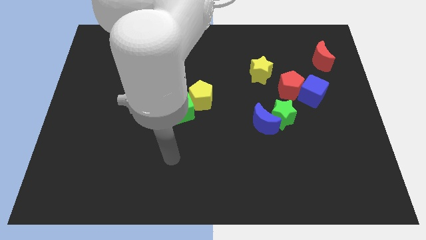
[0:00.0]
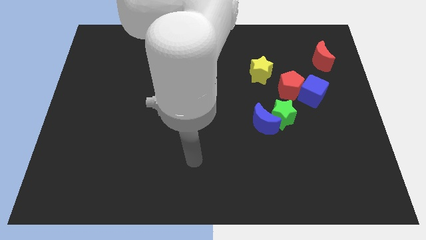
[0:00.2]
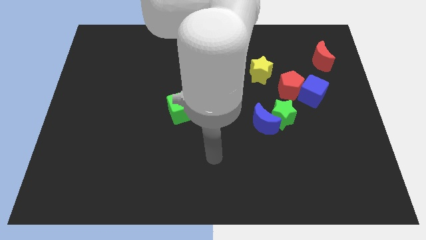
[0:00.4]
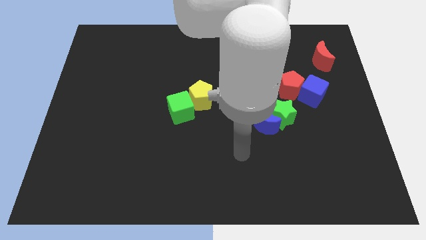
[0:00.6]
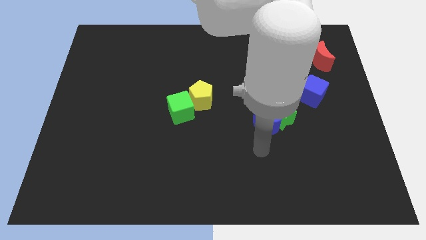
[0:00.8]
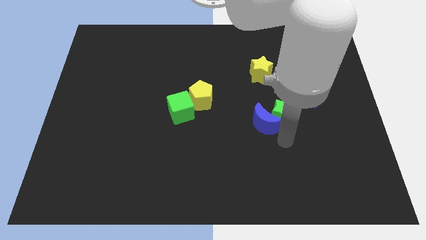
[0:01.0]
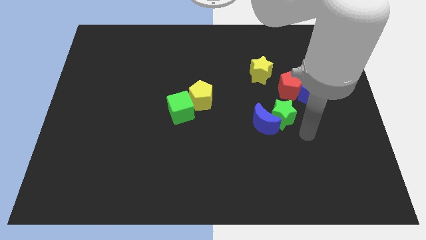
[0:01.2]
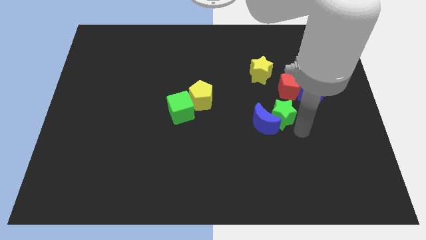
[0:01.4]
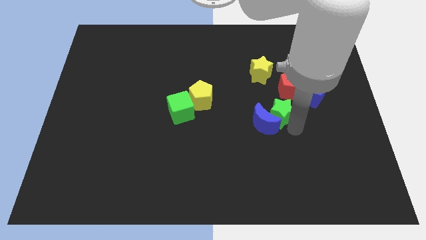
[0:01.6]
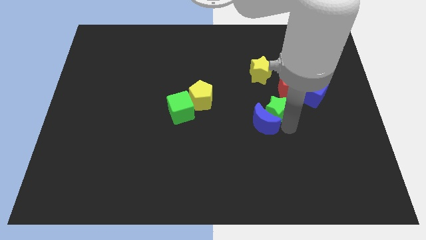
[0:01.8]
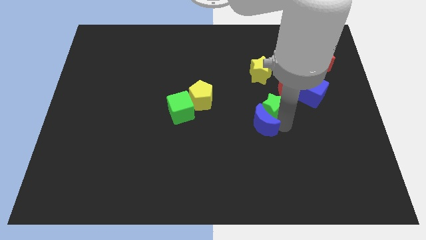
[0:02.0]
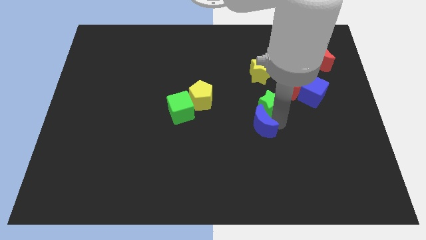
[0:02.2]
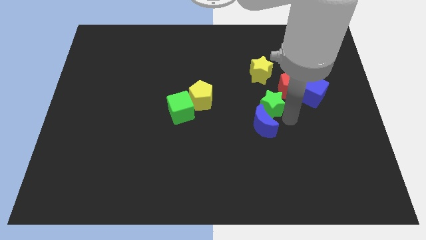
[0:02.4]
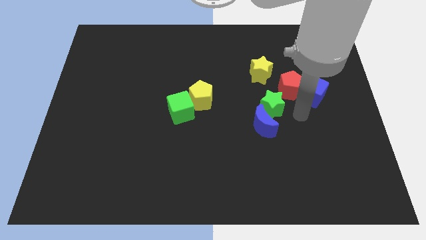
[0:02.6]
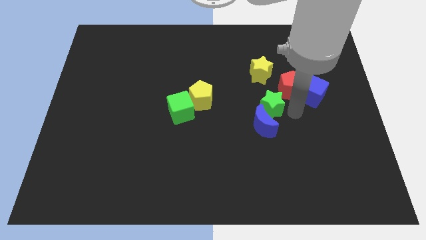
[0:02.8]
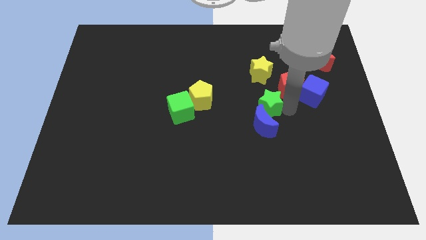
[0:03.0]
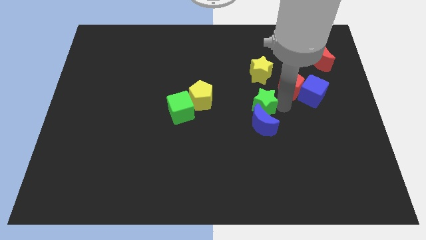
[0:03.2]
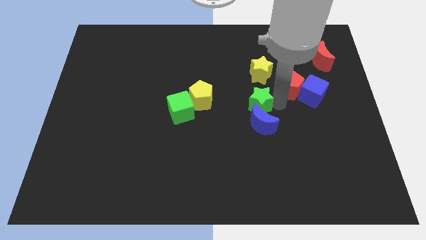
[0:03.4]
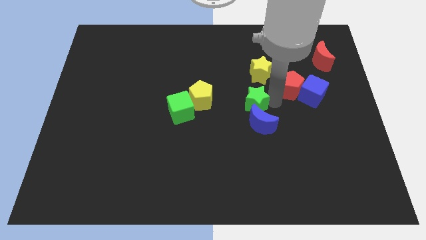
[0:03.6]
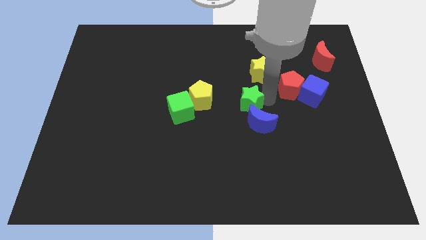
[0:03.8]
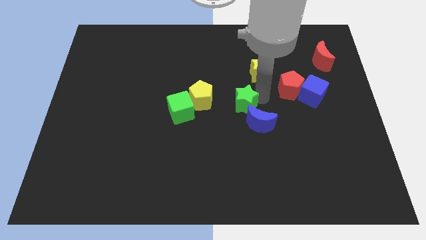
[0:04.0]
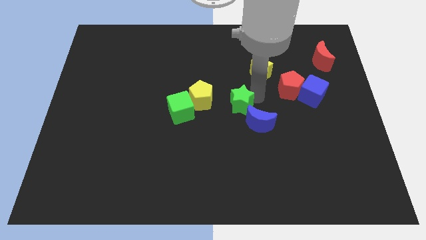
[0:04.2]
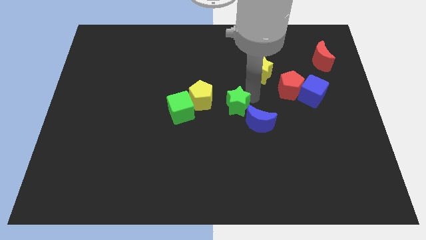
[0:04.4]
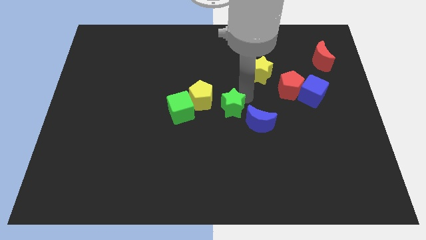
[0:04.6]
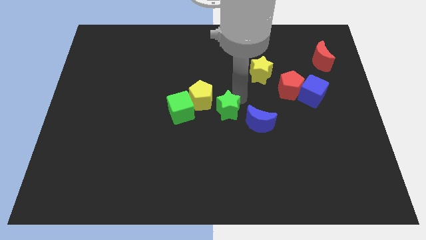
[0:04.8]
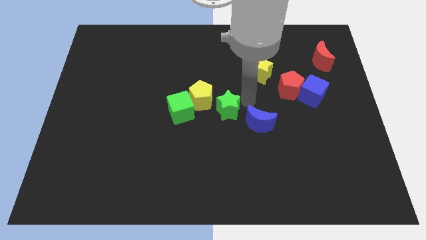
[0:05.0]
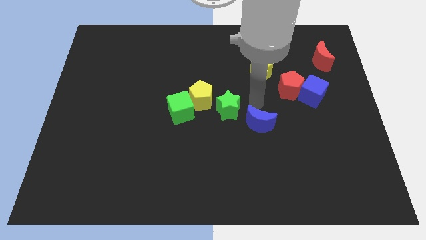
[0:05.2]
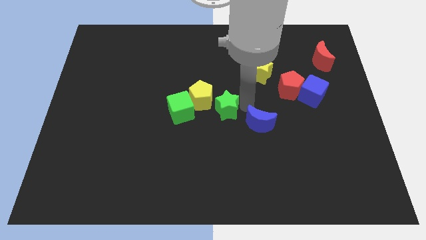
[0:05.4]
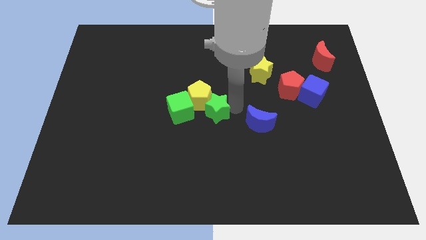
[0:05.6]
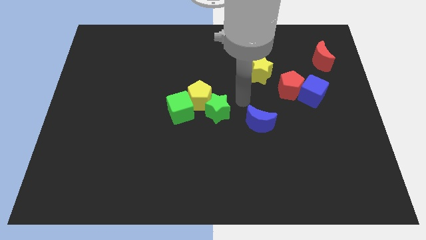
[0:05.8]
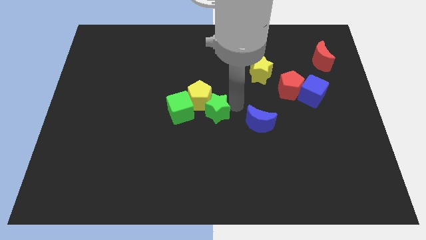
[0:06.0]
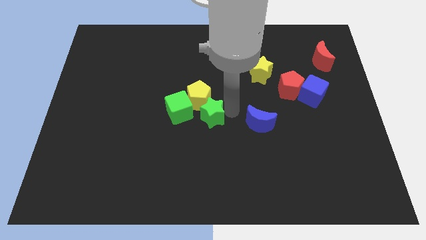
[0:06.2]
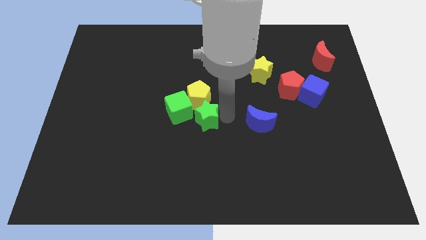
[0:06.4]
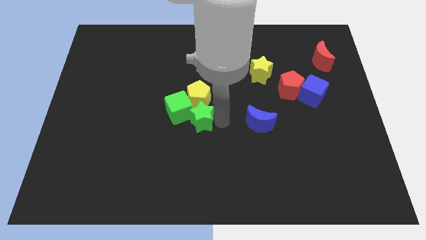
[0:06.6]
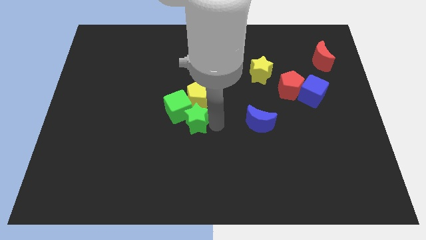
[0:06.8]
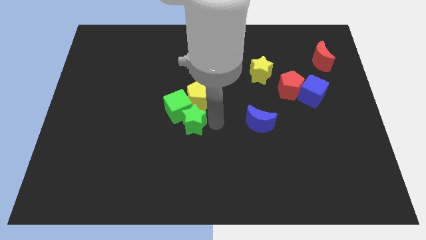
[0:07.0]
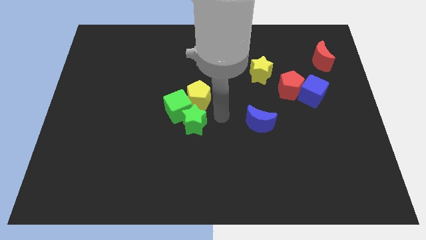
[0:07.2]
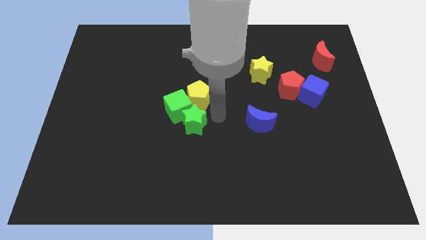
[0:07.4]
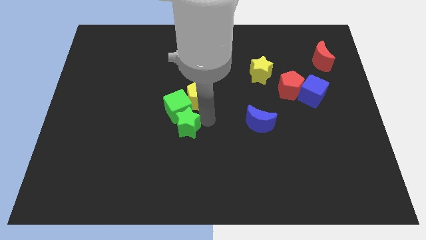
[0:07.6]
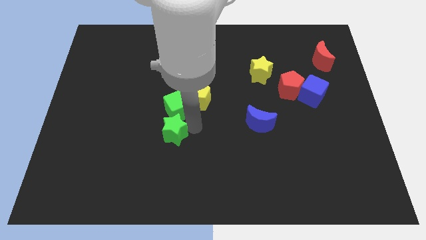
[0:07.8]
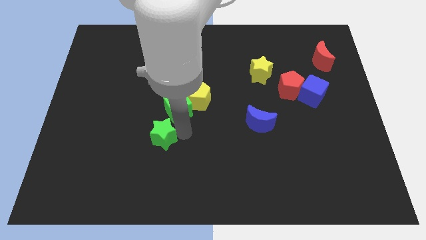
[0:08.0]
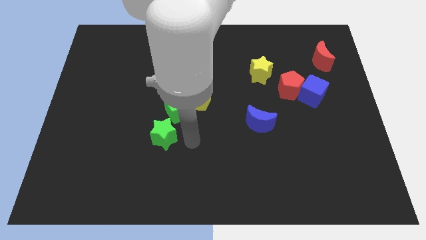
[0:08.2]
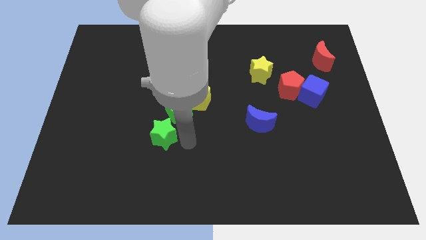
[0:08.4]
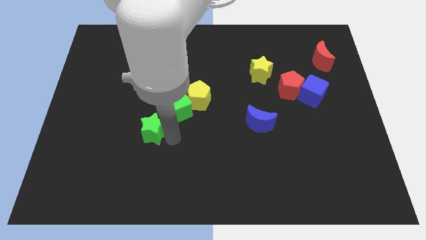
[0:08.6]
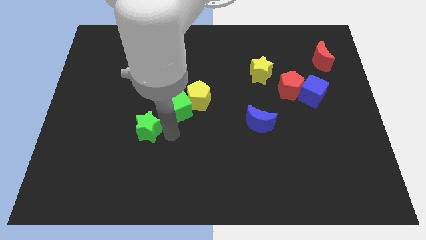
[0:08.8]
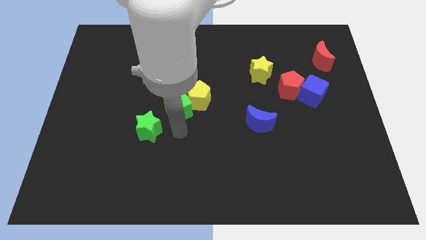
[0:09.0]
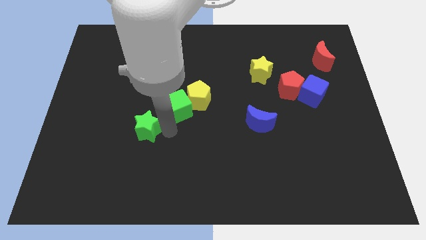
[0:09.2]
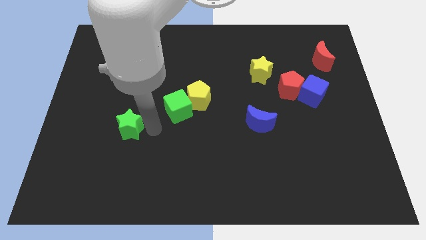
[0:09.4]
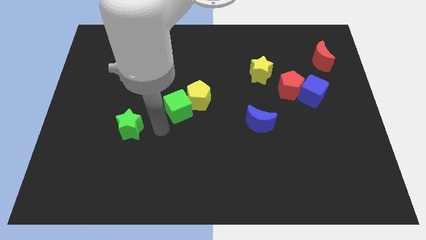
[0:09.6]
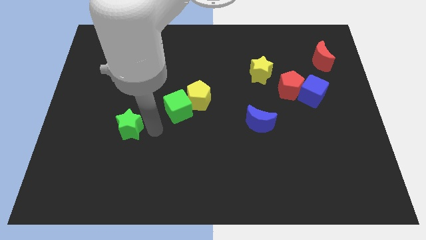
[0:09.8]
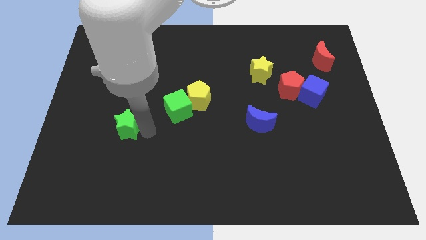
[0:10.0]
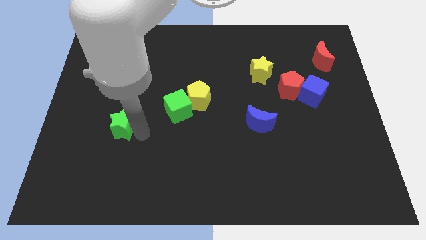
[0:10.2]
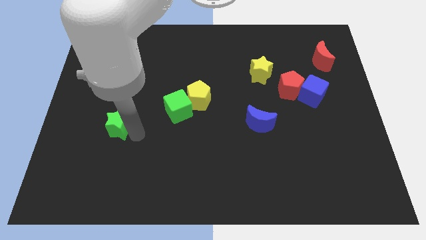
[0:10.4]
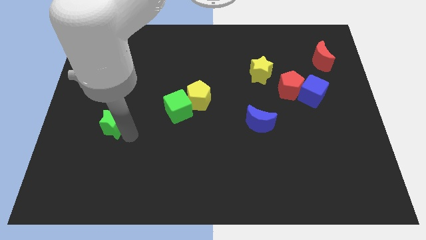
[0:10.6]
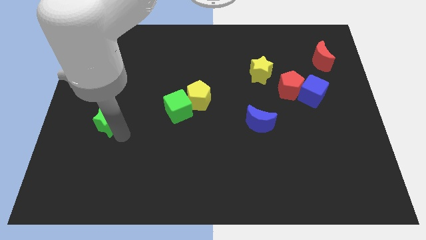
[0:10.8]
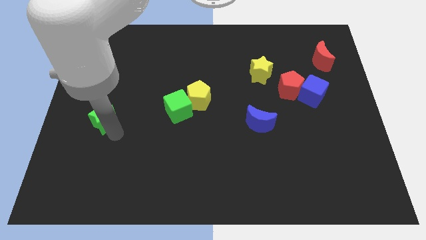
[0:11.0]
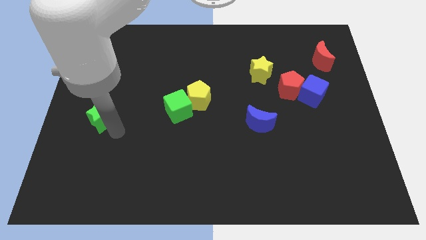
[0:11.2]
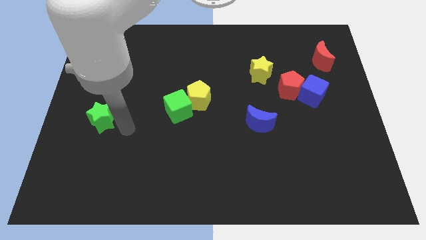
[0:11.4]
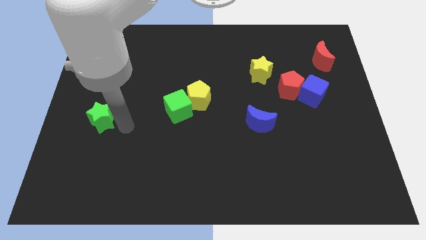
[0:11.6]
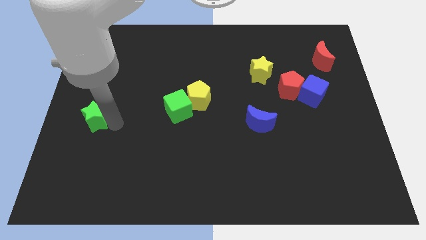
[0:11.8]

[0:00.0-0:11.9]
move the green star to the left side

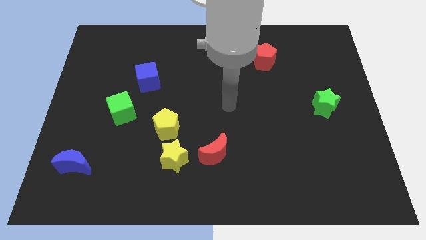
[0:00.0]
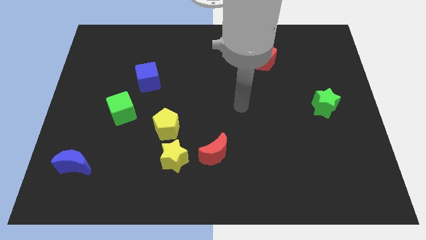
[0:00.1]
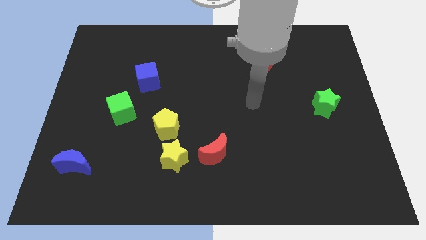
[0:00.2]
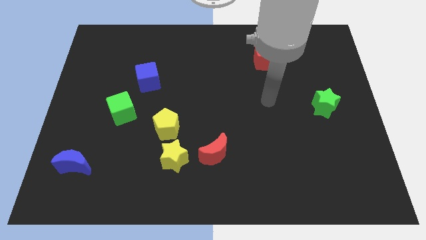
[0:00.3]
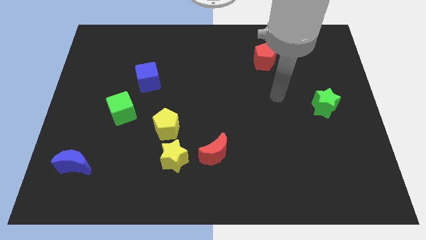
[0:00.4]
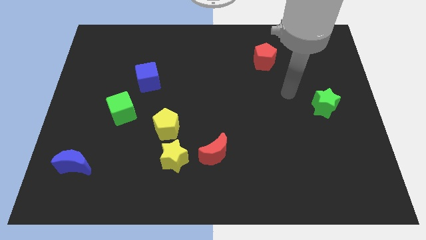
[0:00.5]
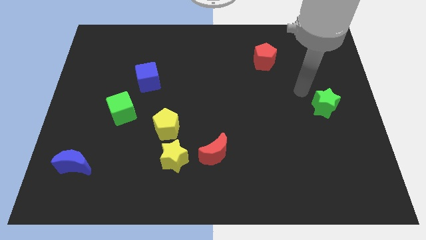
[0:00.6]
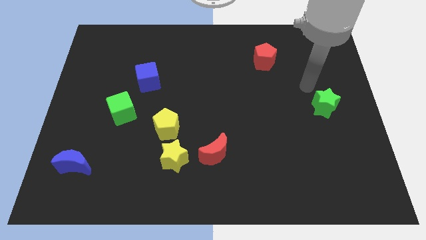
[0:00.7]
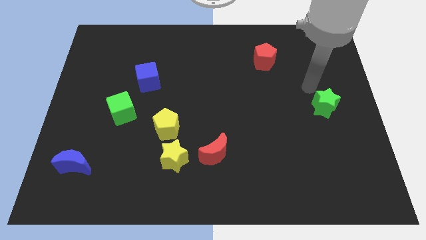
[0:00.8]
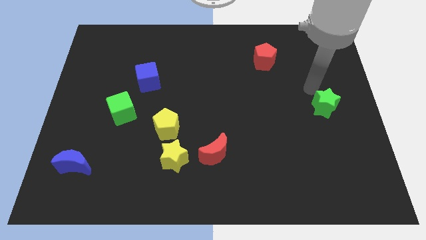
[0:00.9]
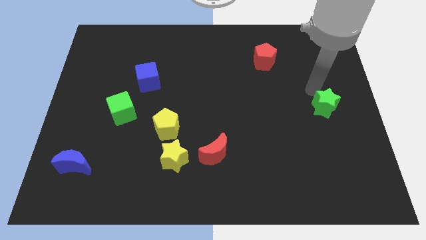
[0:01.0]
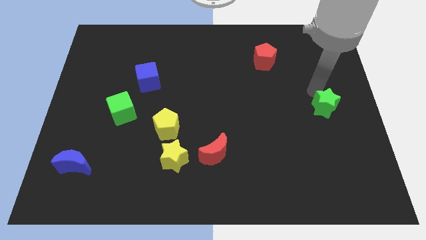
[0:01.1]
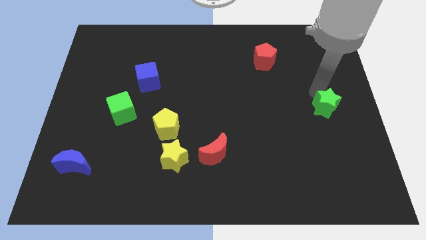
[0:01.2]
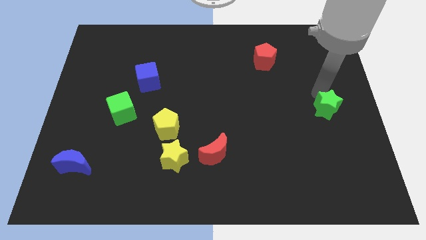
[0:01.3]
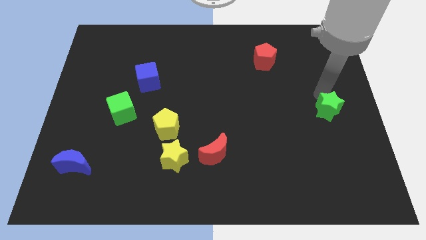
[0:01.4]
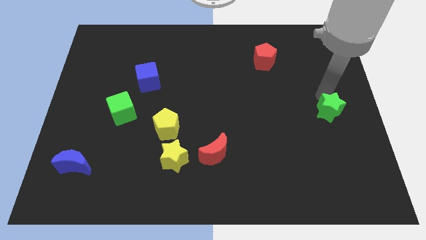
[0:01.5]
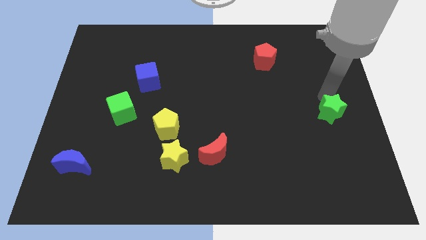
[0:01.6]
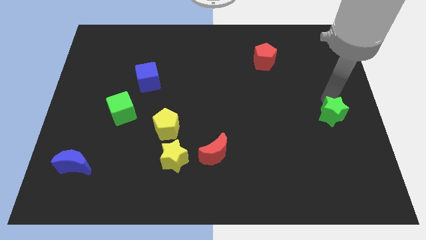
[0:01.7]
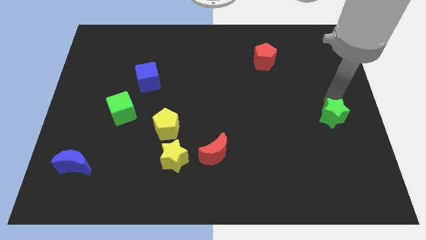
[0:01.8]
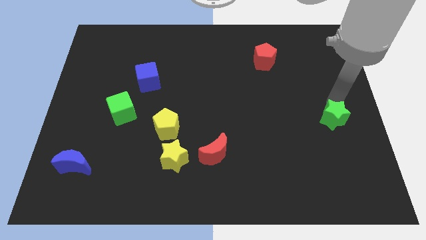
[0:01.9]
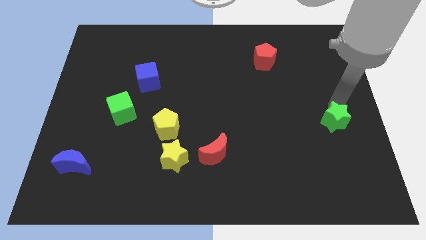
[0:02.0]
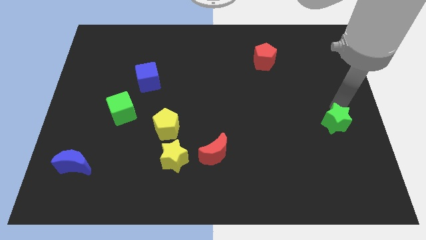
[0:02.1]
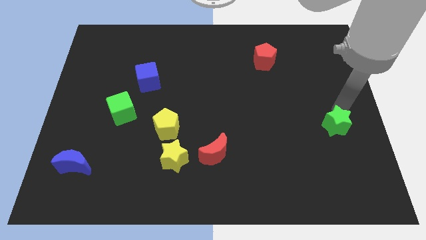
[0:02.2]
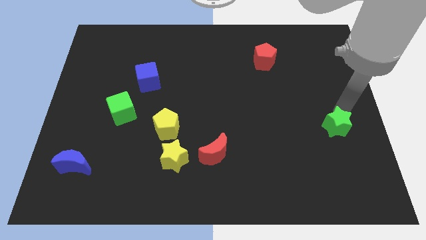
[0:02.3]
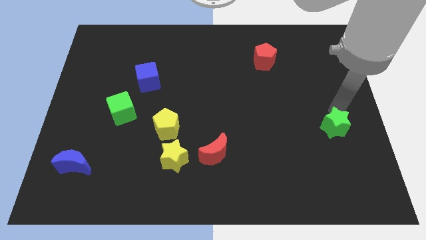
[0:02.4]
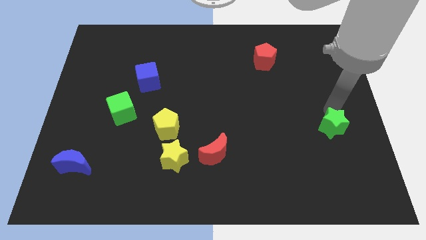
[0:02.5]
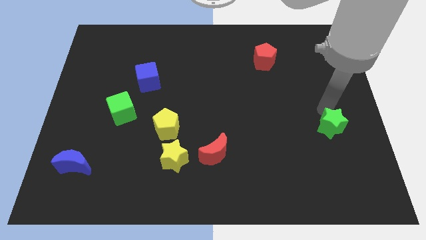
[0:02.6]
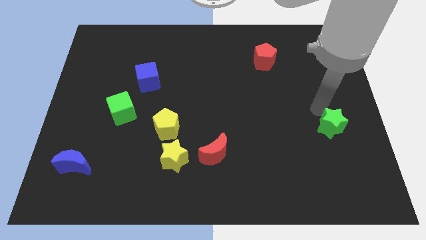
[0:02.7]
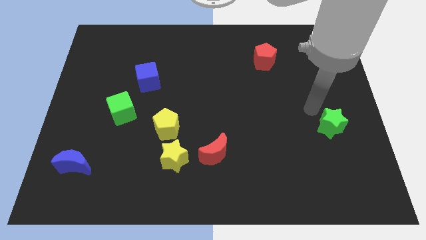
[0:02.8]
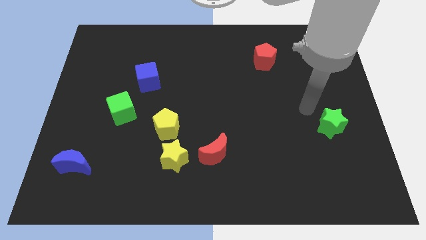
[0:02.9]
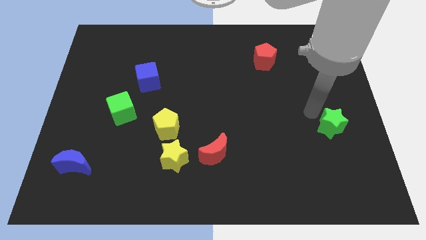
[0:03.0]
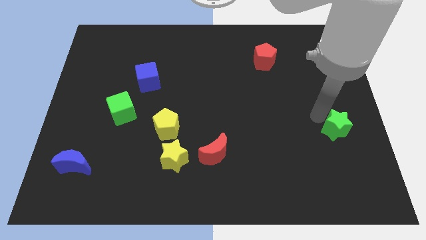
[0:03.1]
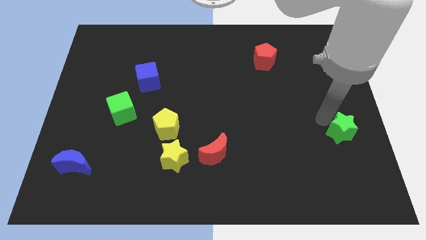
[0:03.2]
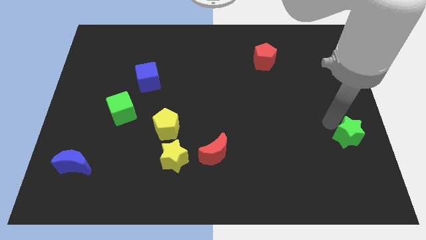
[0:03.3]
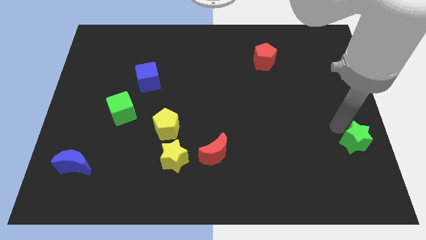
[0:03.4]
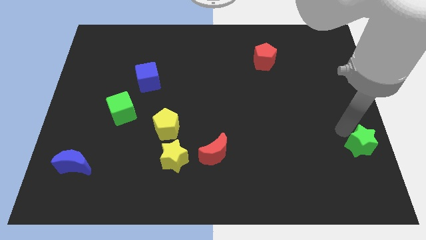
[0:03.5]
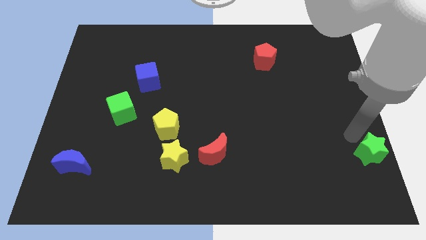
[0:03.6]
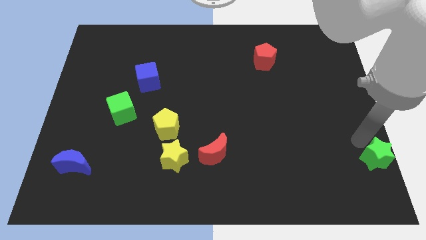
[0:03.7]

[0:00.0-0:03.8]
slide the green star to the lower right corner
